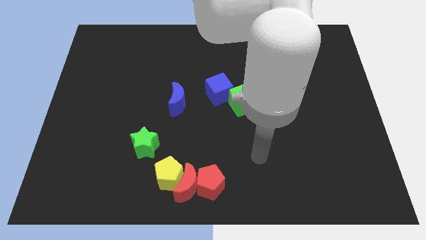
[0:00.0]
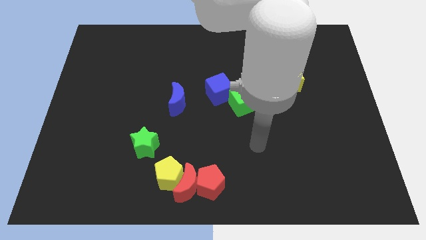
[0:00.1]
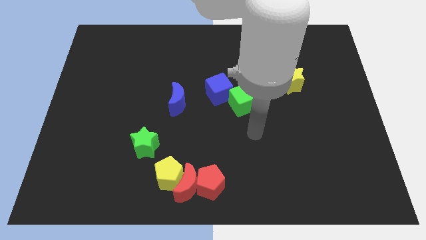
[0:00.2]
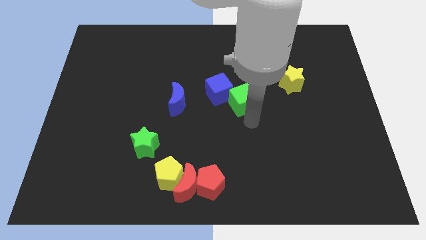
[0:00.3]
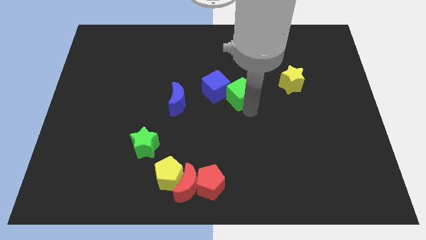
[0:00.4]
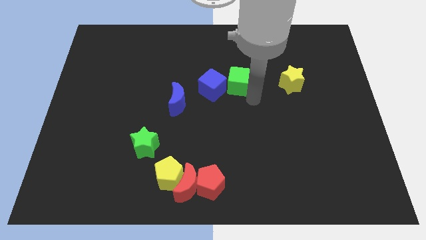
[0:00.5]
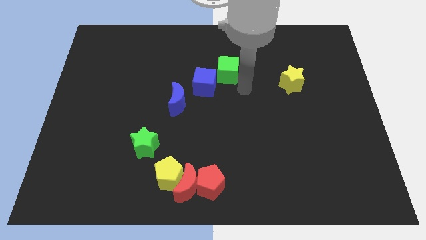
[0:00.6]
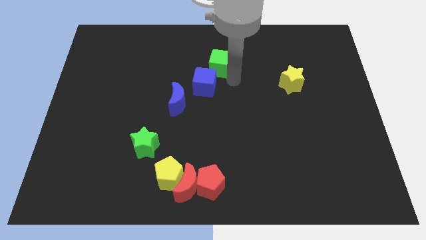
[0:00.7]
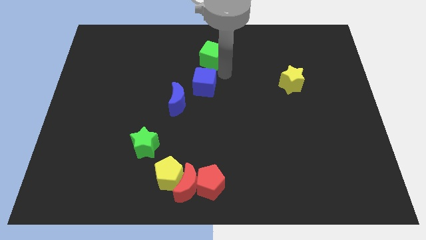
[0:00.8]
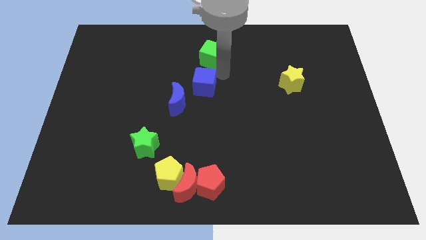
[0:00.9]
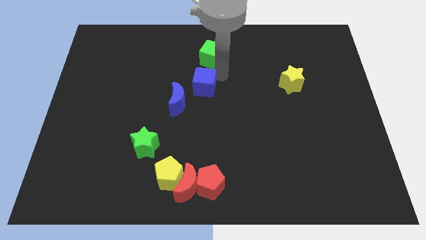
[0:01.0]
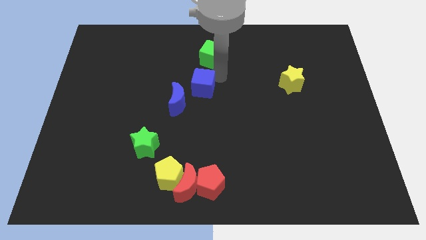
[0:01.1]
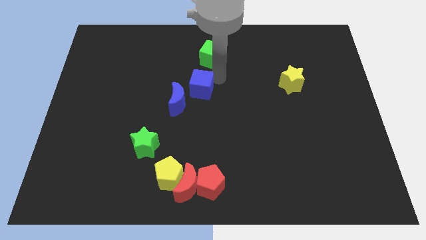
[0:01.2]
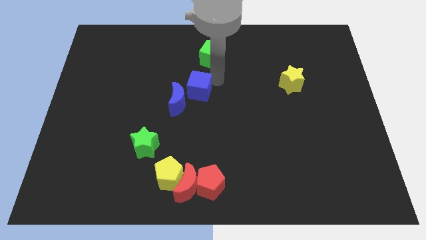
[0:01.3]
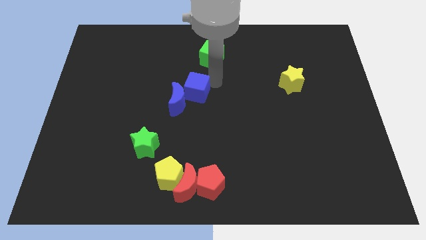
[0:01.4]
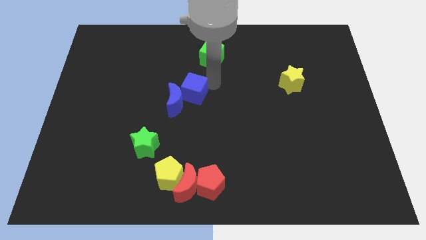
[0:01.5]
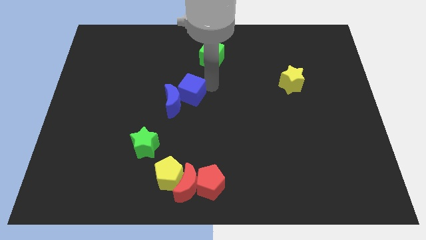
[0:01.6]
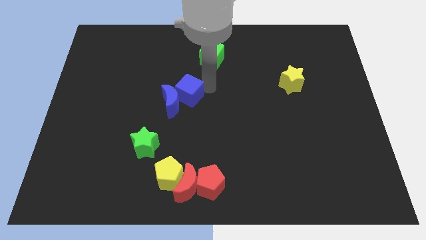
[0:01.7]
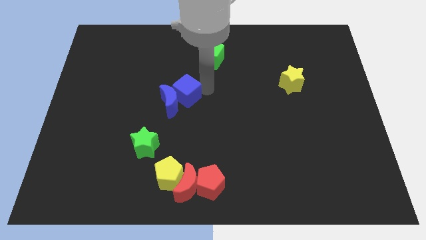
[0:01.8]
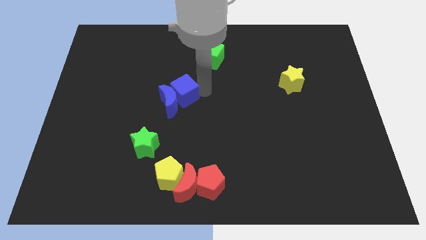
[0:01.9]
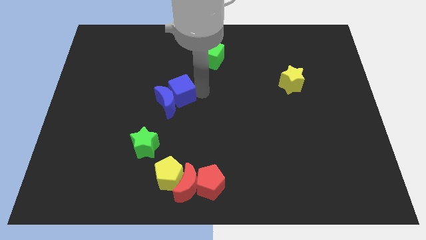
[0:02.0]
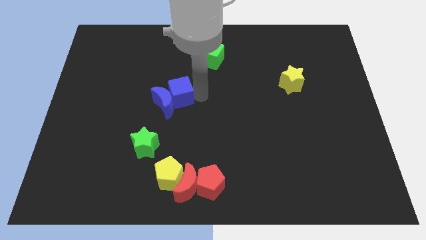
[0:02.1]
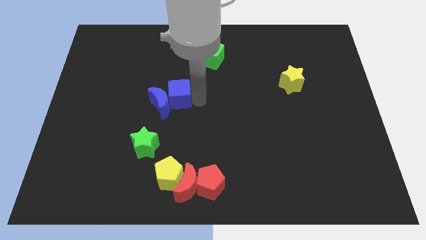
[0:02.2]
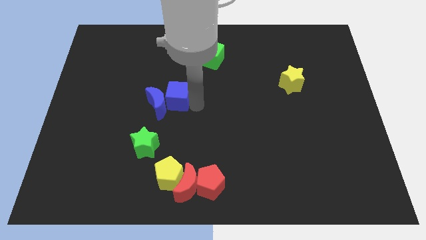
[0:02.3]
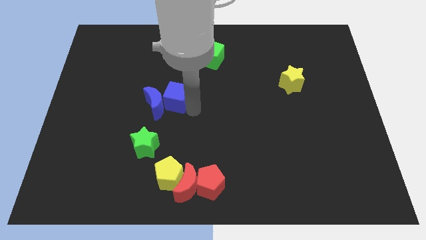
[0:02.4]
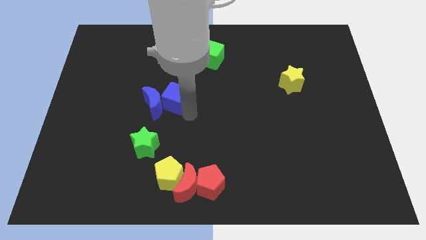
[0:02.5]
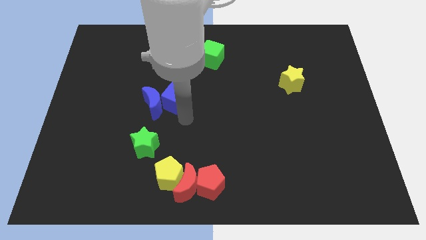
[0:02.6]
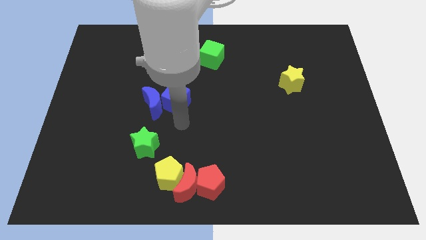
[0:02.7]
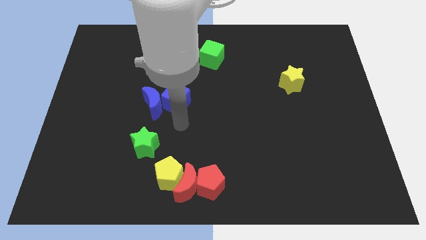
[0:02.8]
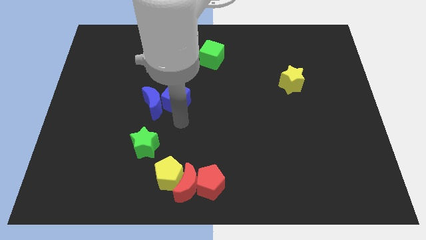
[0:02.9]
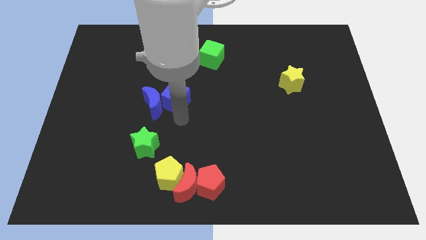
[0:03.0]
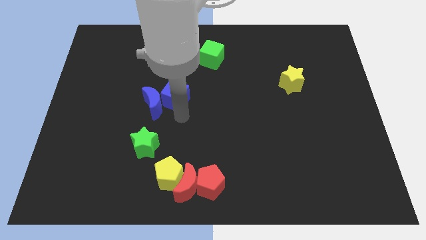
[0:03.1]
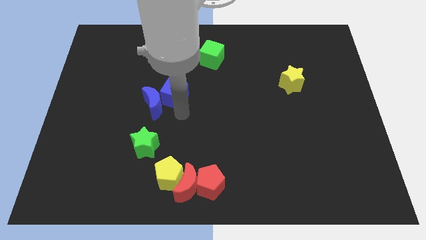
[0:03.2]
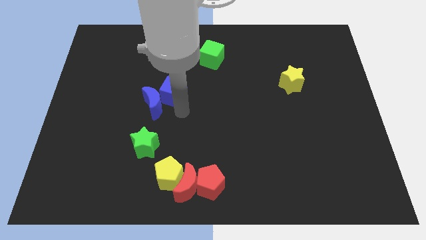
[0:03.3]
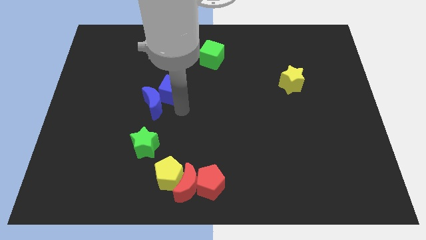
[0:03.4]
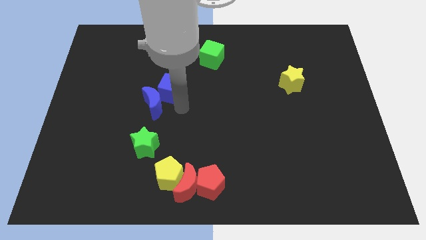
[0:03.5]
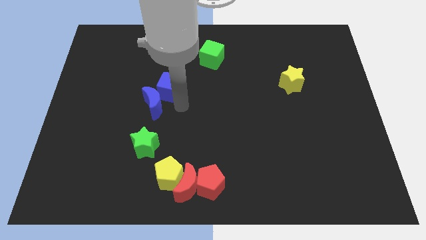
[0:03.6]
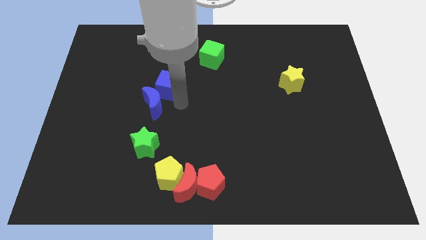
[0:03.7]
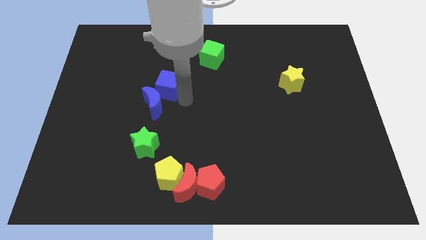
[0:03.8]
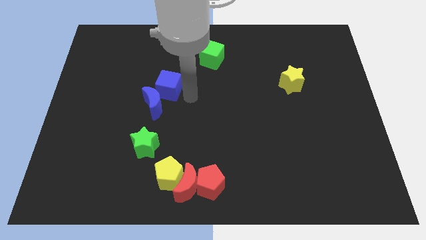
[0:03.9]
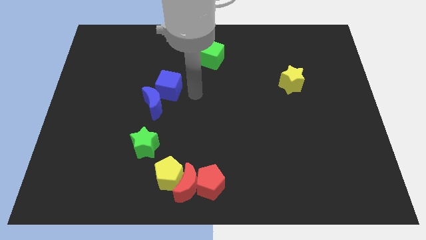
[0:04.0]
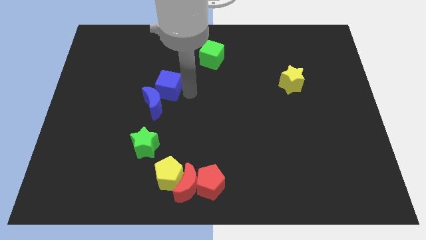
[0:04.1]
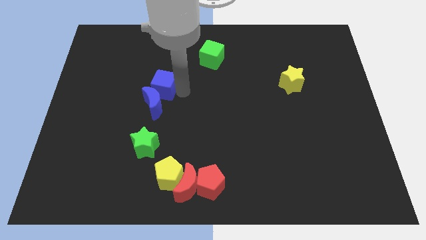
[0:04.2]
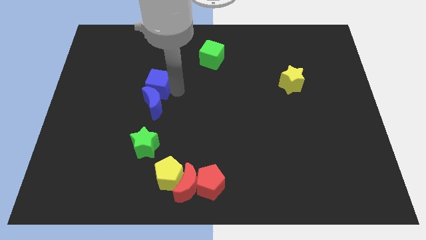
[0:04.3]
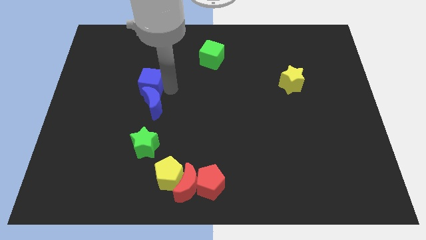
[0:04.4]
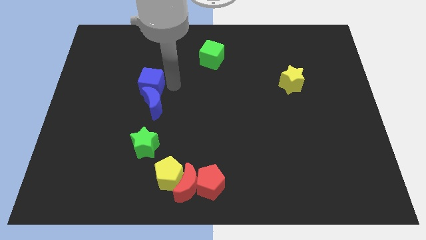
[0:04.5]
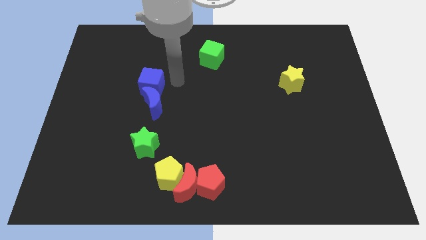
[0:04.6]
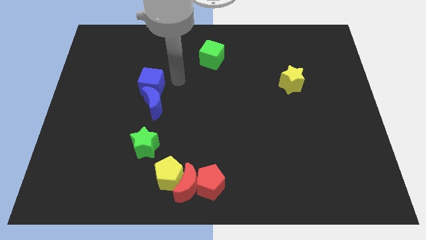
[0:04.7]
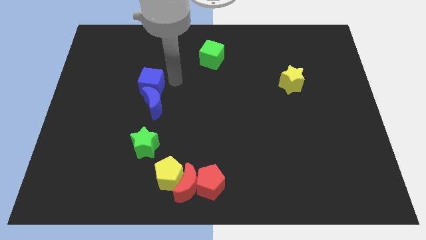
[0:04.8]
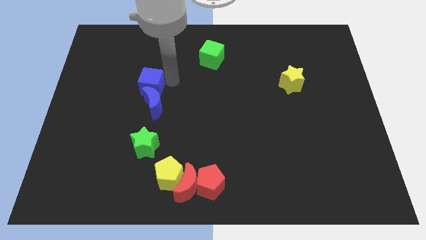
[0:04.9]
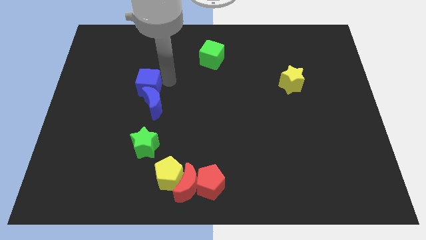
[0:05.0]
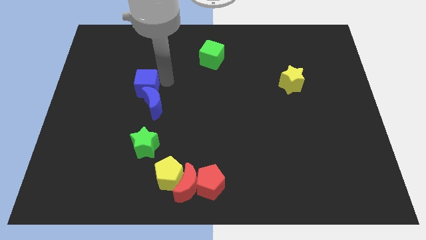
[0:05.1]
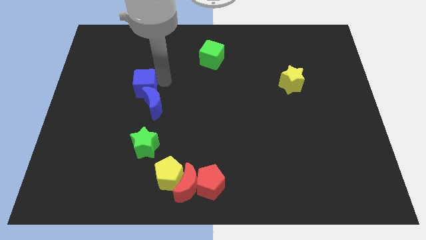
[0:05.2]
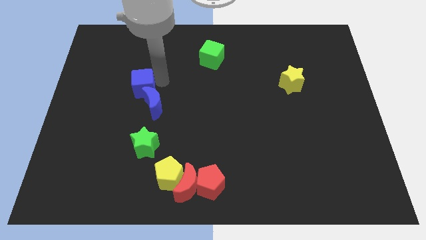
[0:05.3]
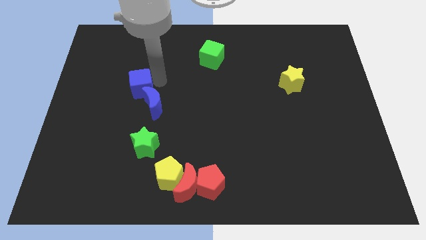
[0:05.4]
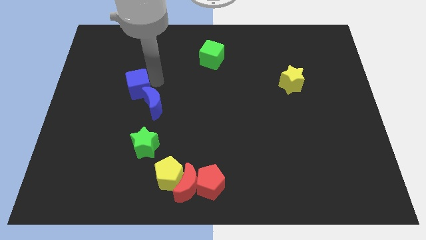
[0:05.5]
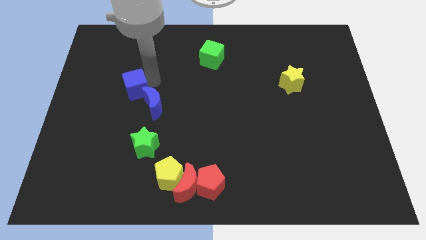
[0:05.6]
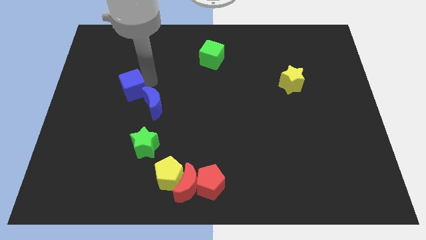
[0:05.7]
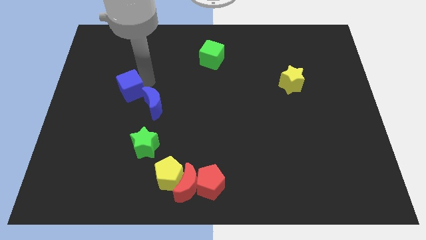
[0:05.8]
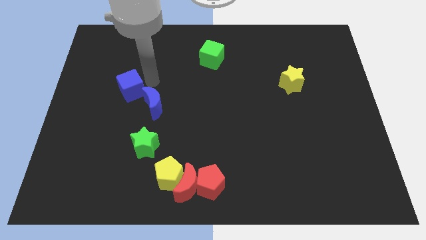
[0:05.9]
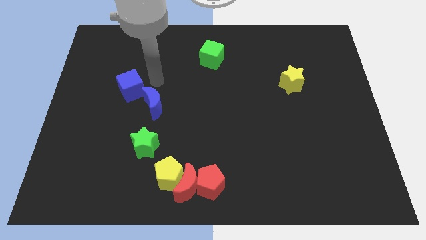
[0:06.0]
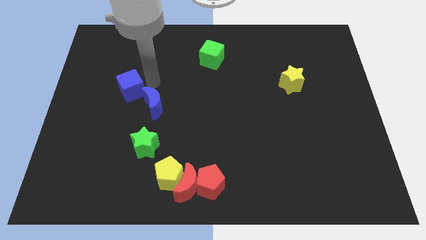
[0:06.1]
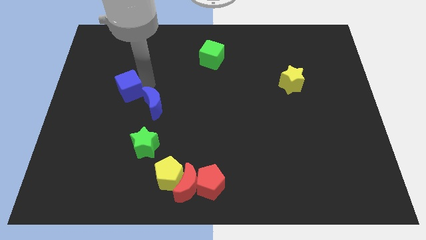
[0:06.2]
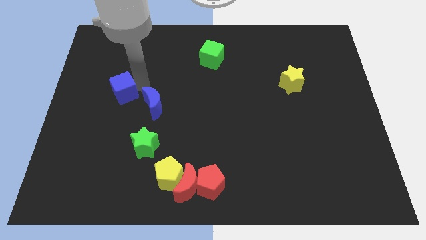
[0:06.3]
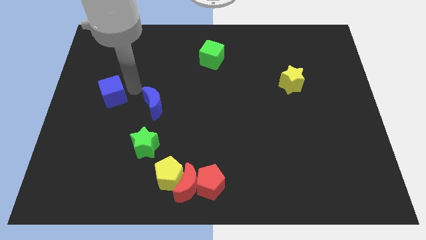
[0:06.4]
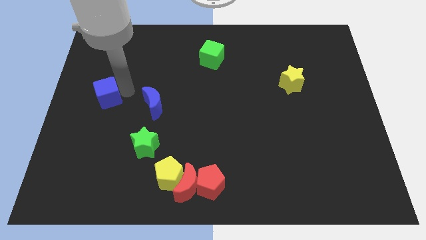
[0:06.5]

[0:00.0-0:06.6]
put the blue cube to the left side
